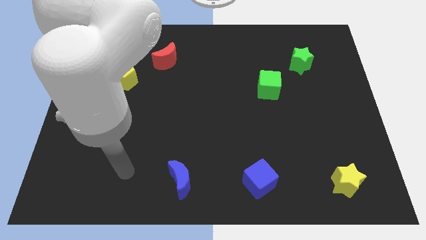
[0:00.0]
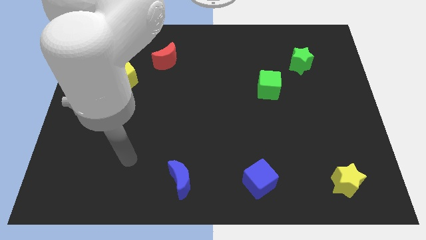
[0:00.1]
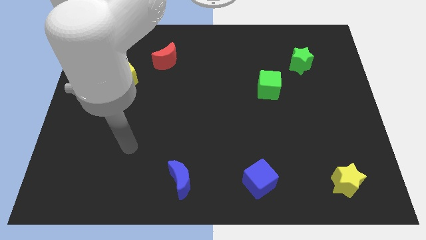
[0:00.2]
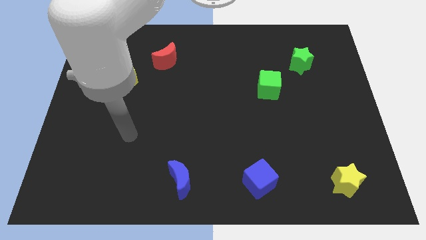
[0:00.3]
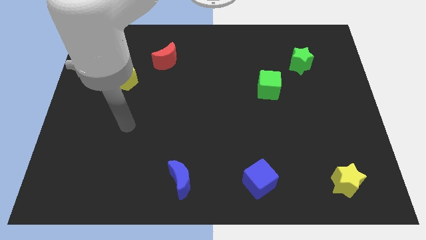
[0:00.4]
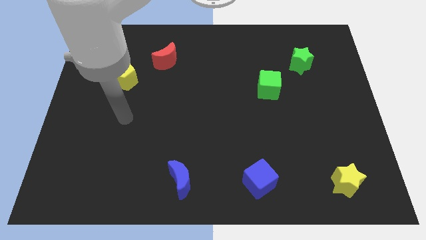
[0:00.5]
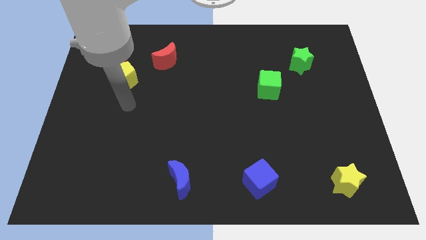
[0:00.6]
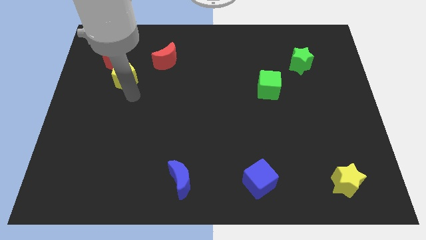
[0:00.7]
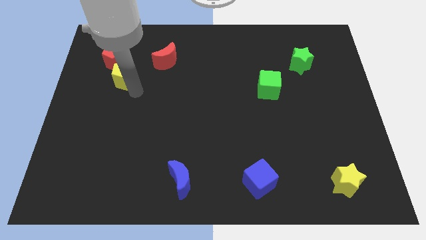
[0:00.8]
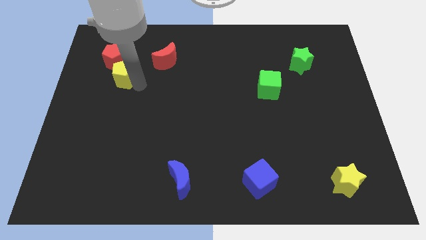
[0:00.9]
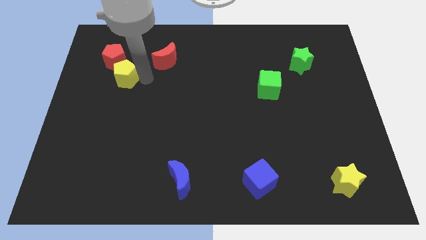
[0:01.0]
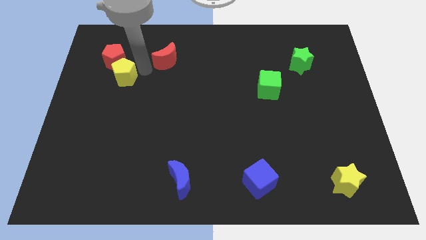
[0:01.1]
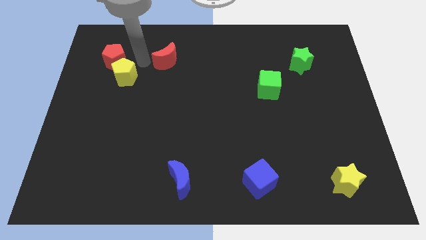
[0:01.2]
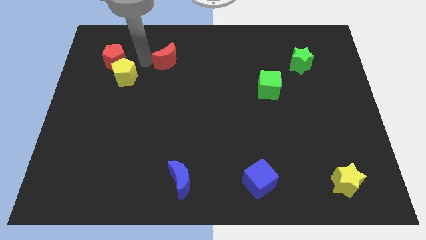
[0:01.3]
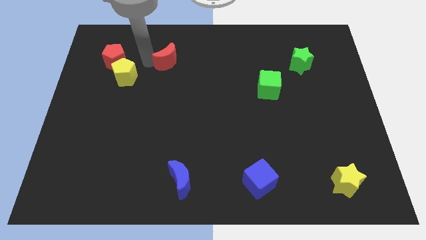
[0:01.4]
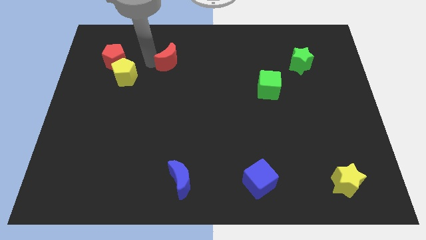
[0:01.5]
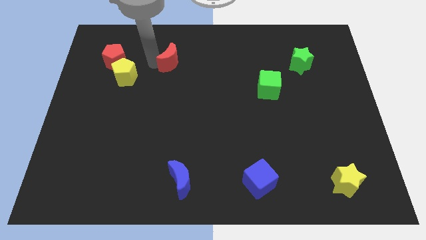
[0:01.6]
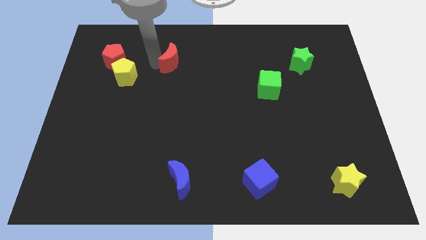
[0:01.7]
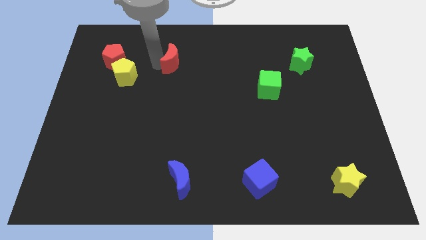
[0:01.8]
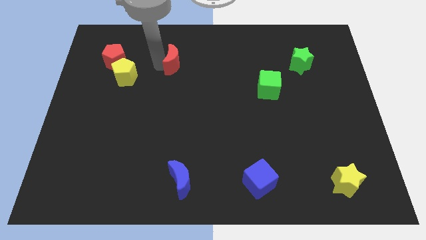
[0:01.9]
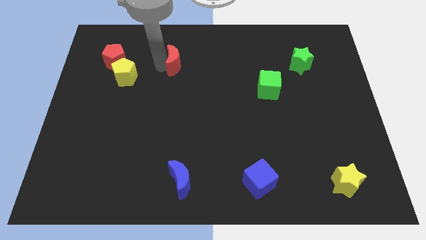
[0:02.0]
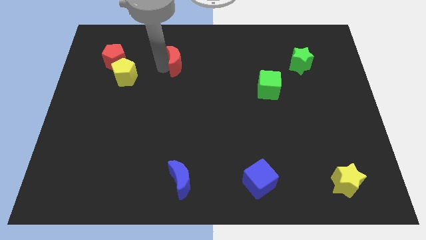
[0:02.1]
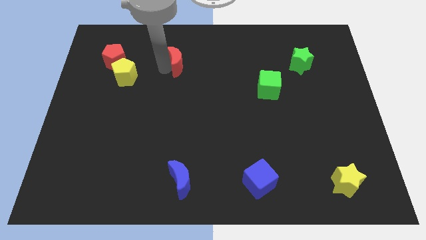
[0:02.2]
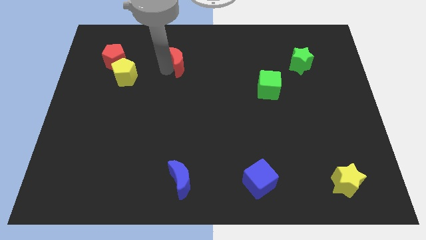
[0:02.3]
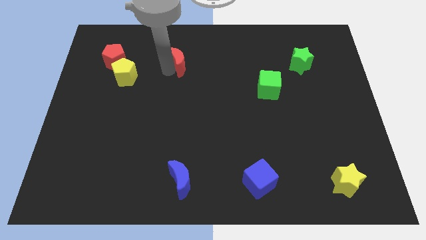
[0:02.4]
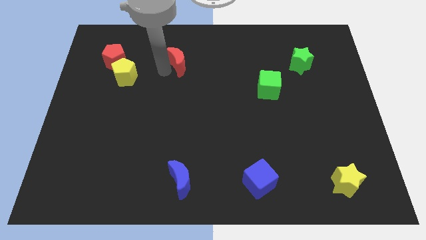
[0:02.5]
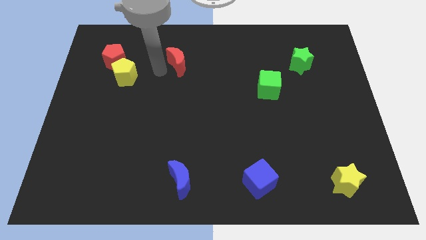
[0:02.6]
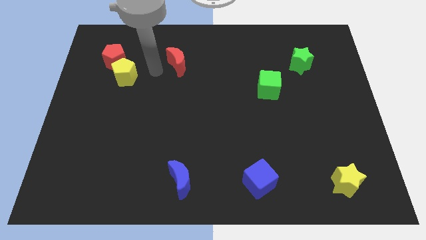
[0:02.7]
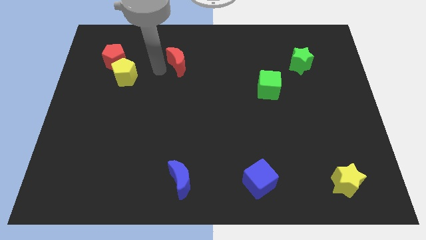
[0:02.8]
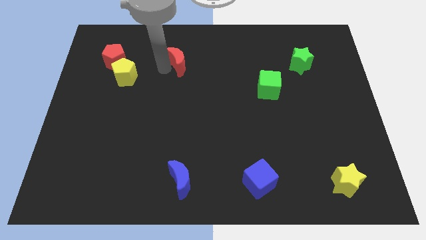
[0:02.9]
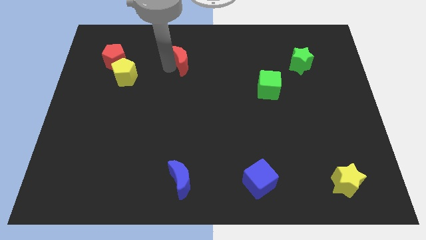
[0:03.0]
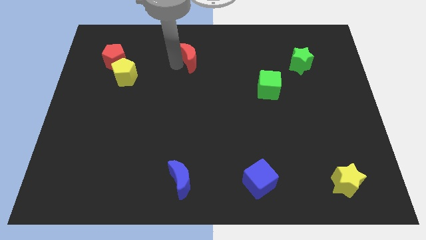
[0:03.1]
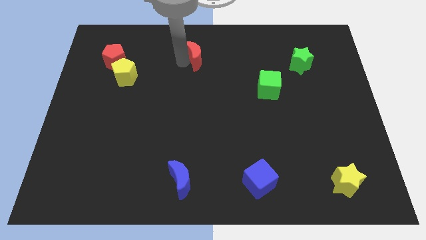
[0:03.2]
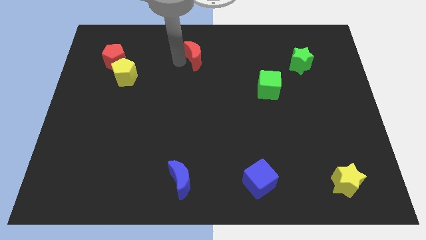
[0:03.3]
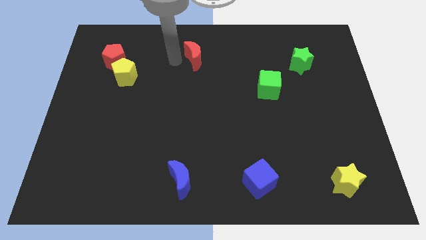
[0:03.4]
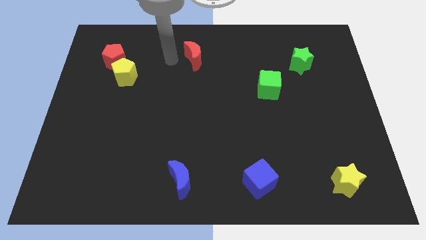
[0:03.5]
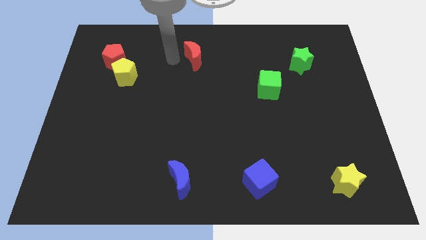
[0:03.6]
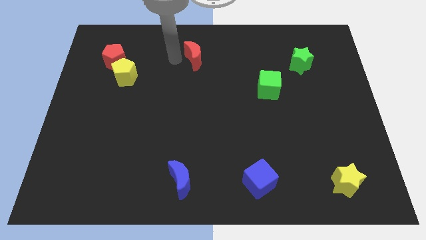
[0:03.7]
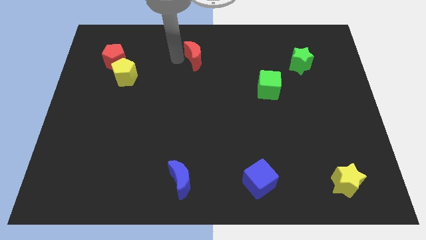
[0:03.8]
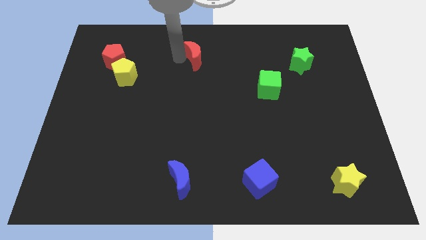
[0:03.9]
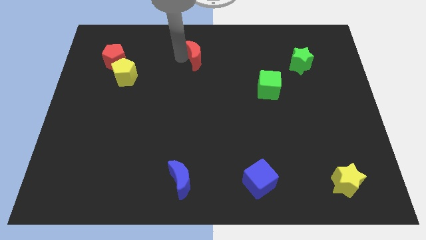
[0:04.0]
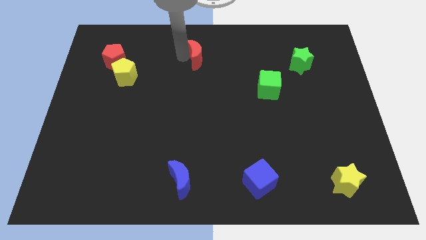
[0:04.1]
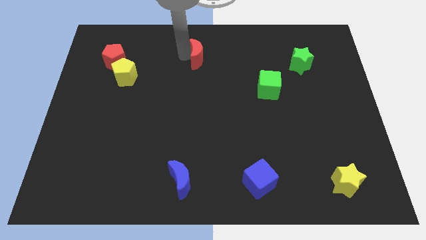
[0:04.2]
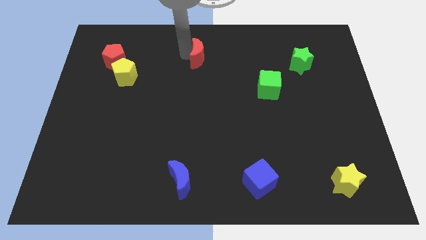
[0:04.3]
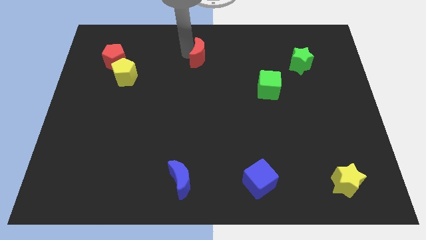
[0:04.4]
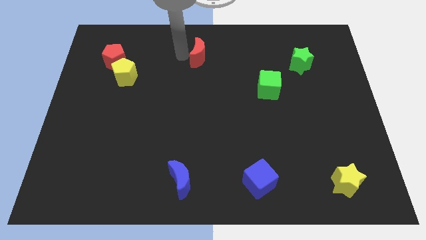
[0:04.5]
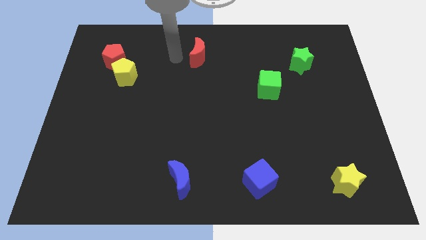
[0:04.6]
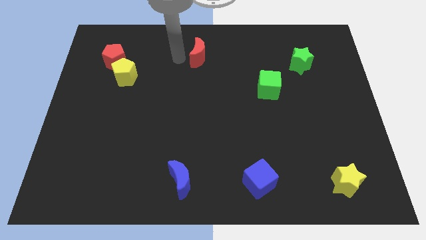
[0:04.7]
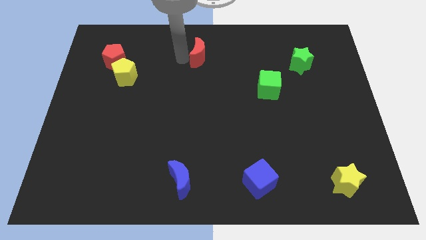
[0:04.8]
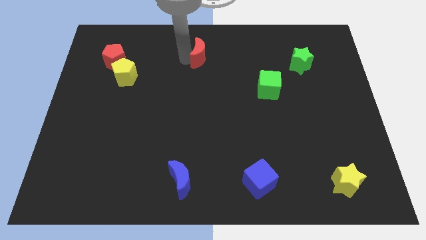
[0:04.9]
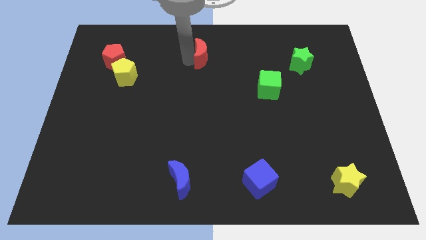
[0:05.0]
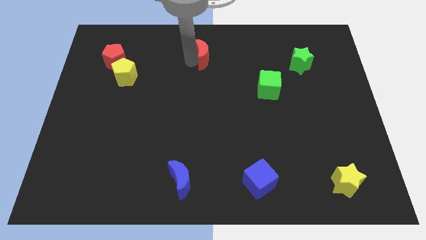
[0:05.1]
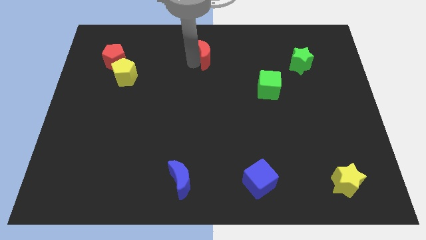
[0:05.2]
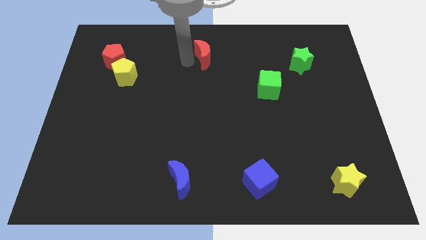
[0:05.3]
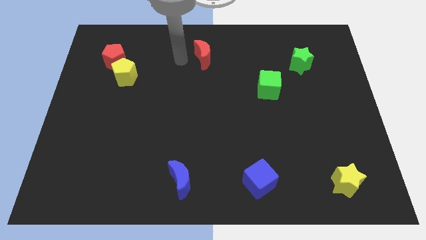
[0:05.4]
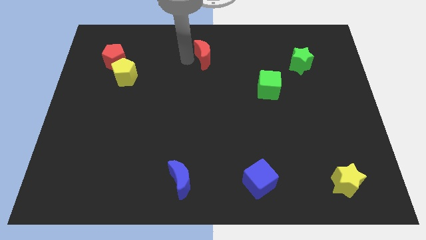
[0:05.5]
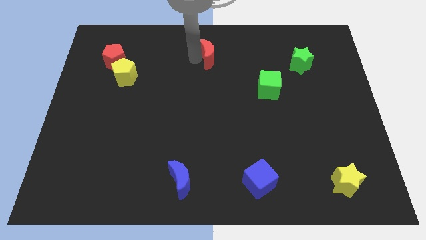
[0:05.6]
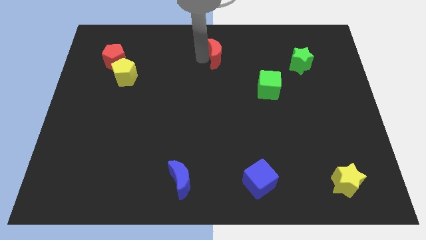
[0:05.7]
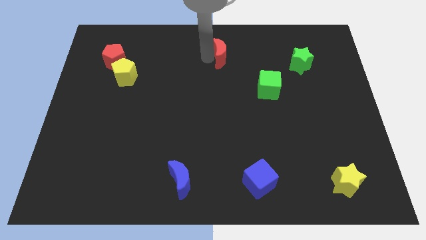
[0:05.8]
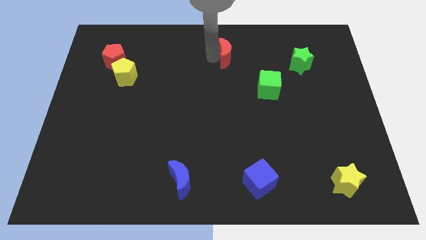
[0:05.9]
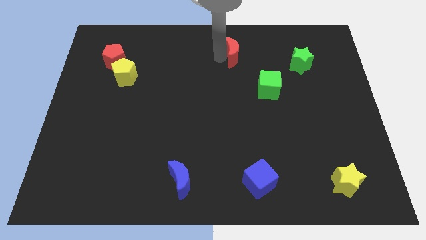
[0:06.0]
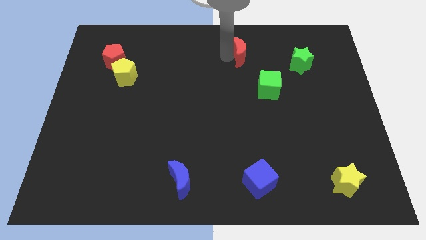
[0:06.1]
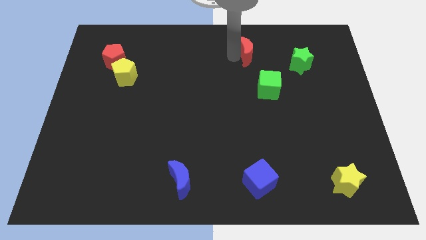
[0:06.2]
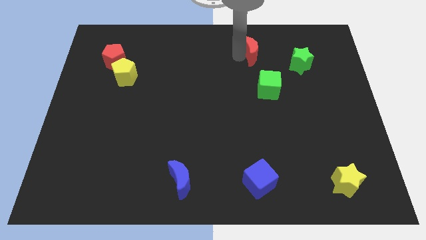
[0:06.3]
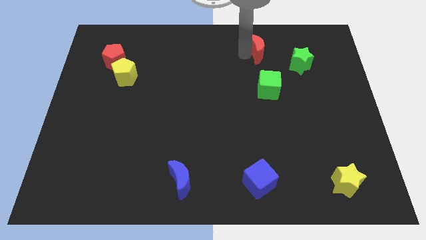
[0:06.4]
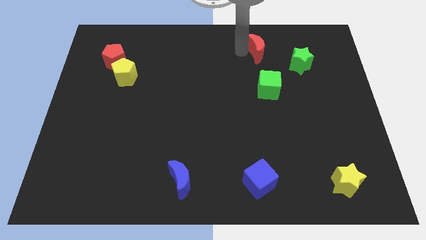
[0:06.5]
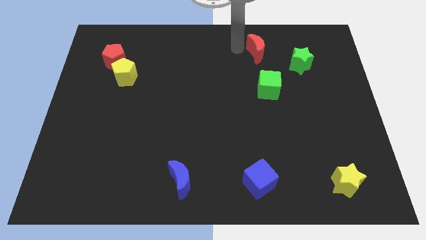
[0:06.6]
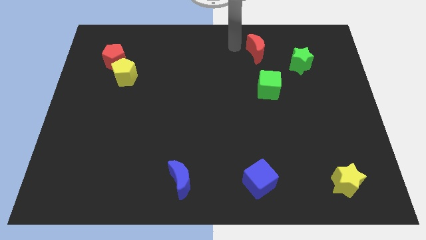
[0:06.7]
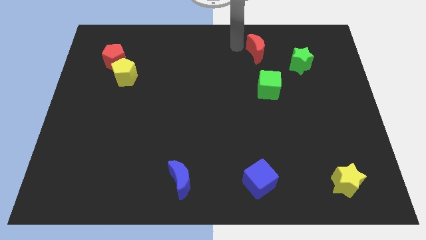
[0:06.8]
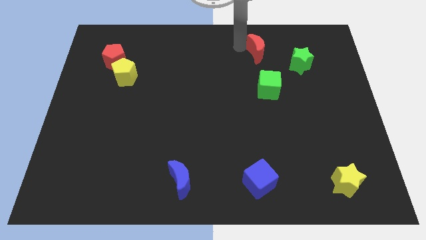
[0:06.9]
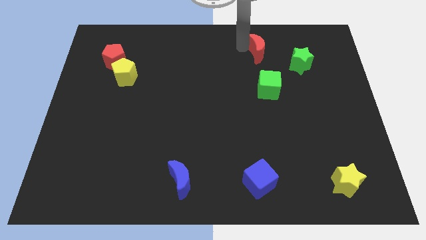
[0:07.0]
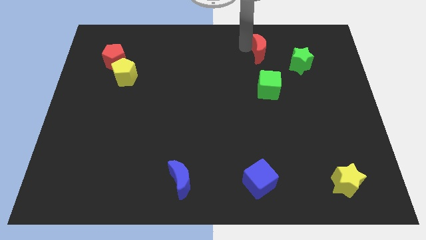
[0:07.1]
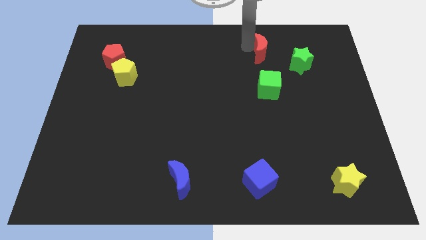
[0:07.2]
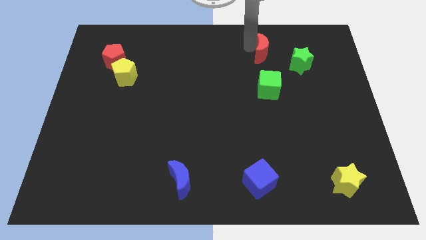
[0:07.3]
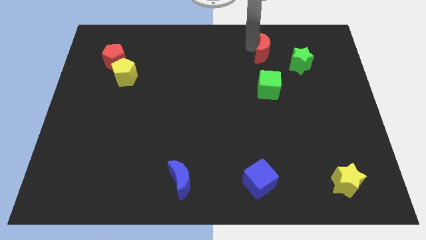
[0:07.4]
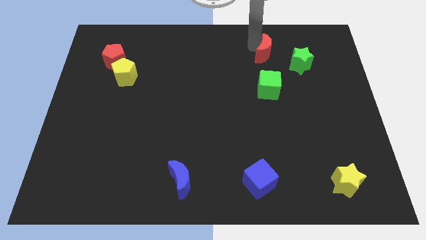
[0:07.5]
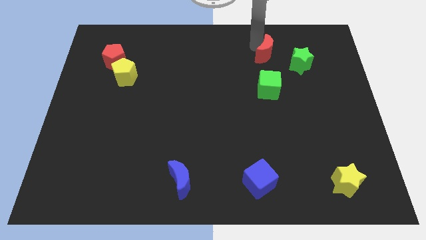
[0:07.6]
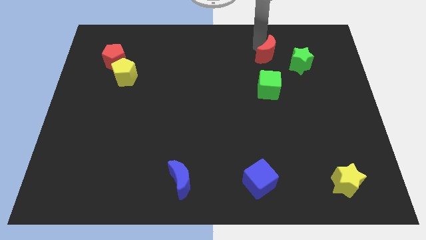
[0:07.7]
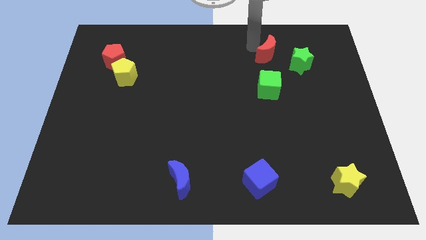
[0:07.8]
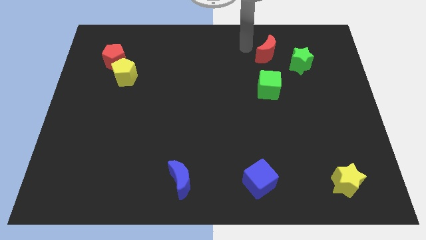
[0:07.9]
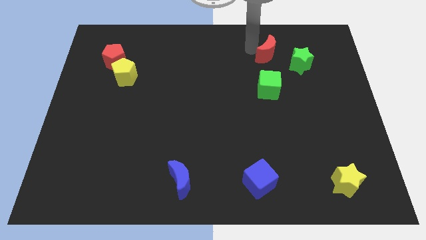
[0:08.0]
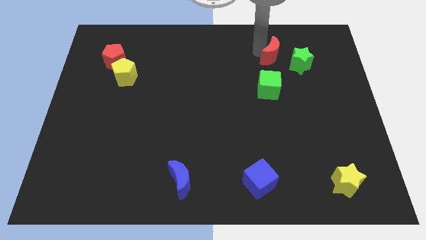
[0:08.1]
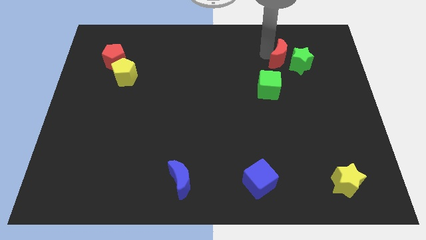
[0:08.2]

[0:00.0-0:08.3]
slide the red moon to the green star
